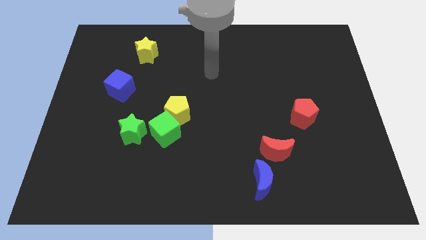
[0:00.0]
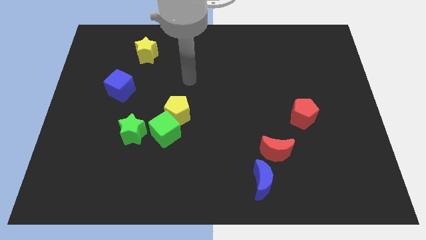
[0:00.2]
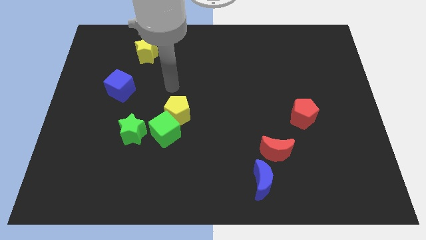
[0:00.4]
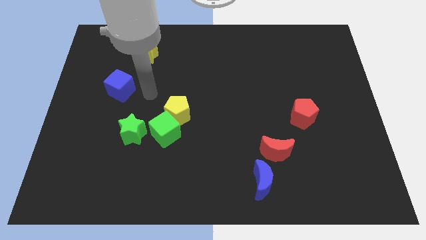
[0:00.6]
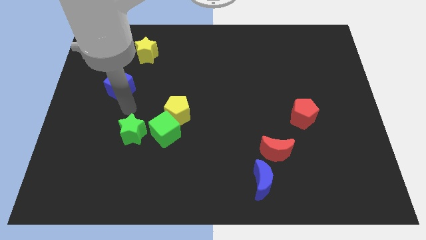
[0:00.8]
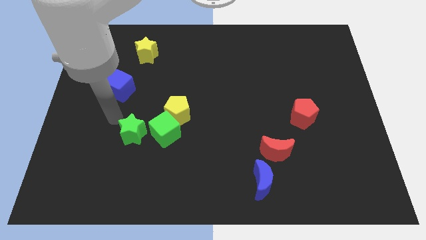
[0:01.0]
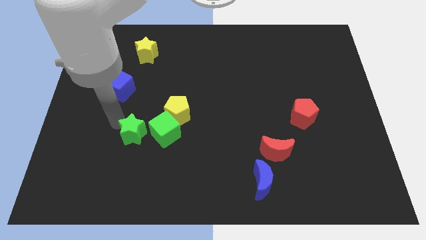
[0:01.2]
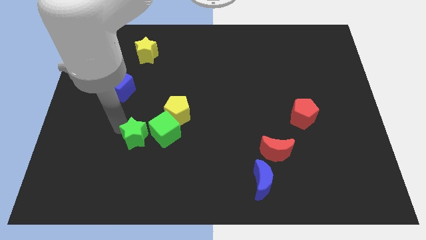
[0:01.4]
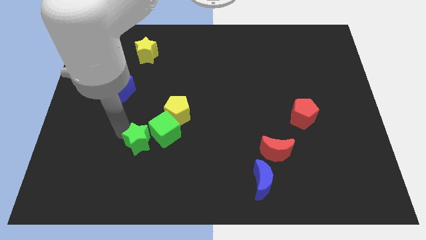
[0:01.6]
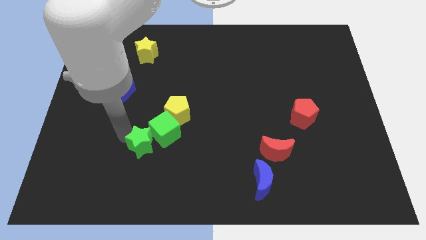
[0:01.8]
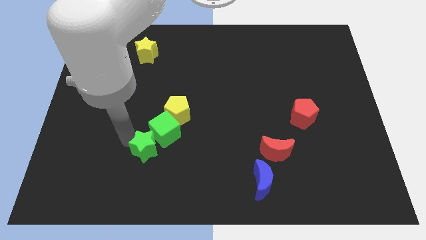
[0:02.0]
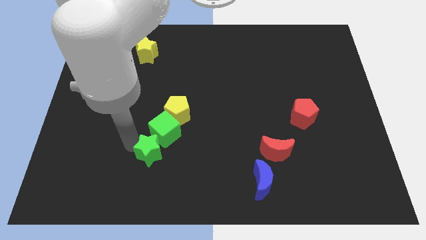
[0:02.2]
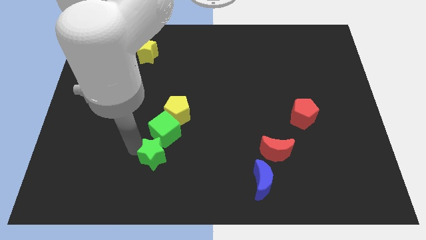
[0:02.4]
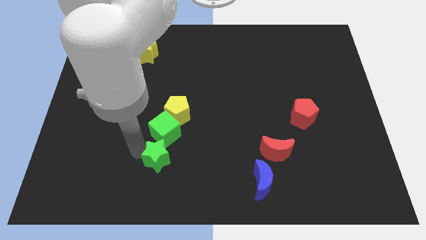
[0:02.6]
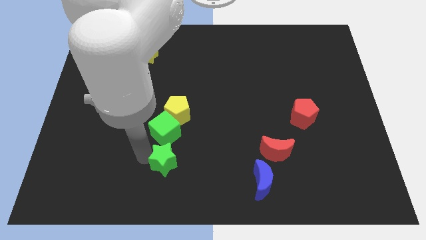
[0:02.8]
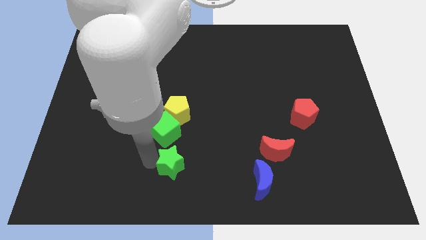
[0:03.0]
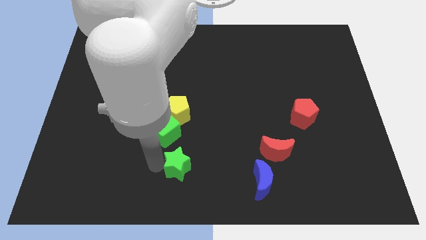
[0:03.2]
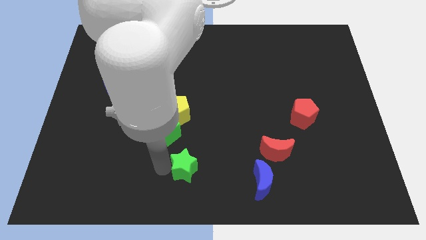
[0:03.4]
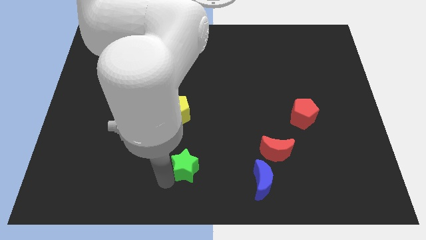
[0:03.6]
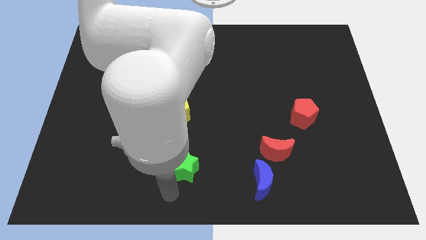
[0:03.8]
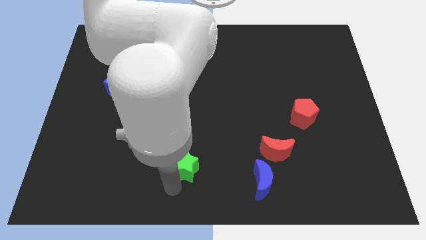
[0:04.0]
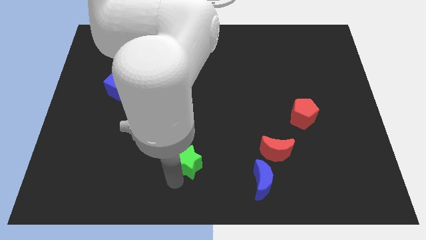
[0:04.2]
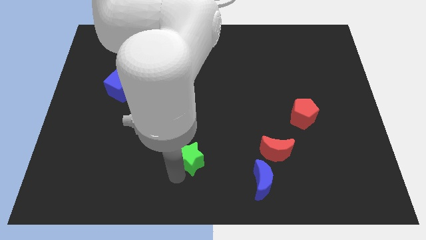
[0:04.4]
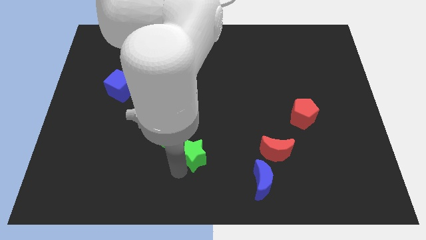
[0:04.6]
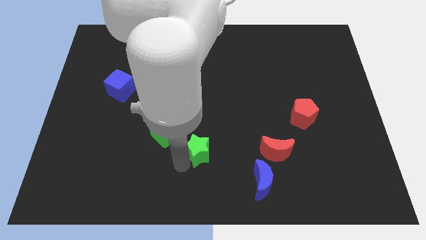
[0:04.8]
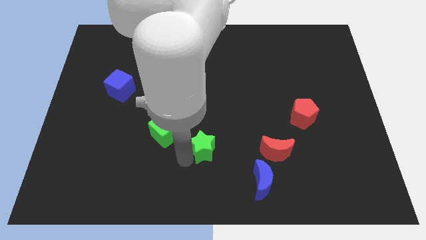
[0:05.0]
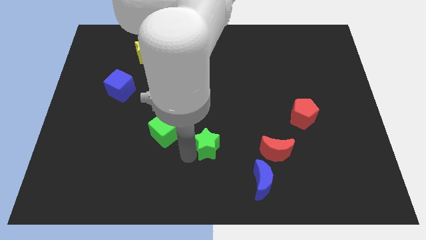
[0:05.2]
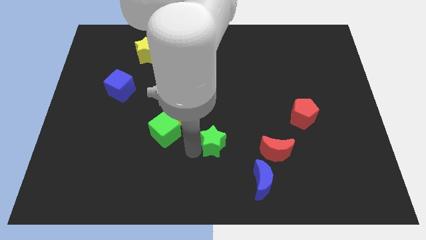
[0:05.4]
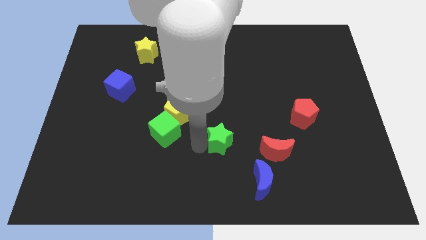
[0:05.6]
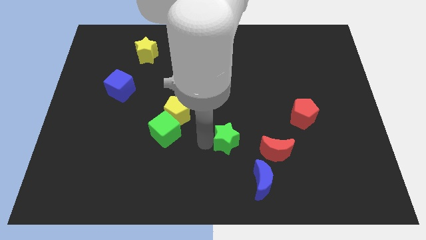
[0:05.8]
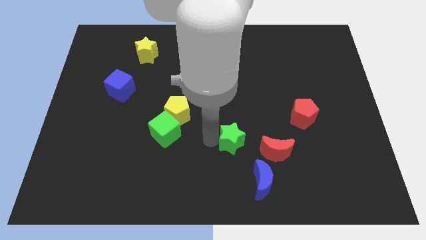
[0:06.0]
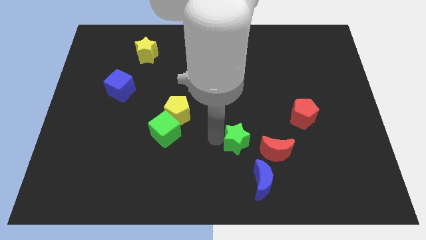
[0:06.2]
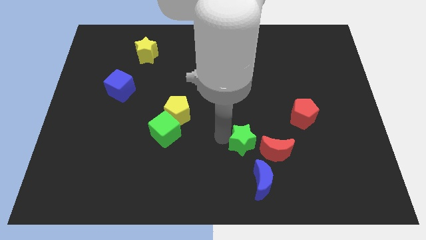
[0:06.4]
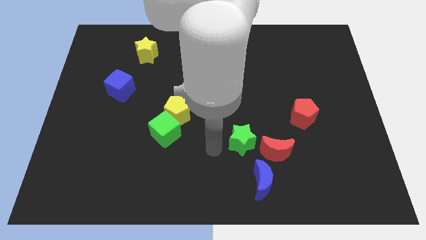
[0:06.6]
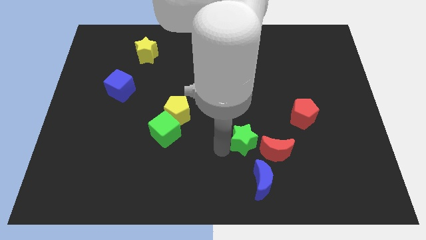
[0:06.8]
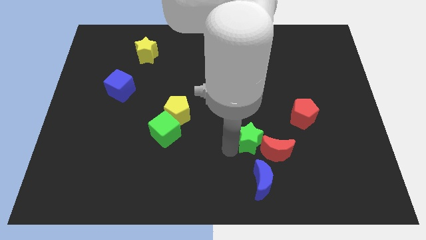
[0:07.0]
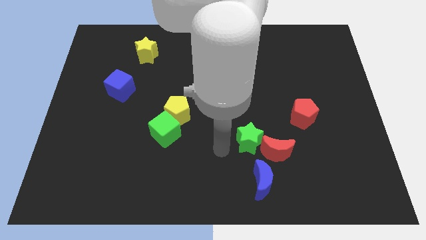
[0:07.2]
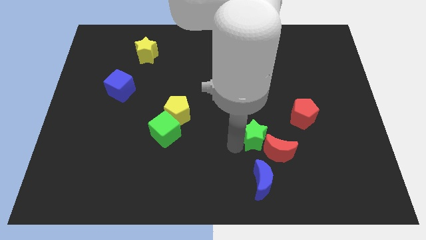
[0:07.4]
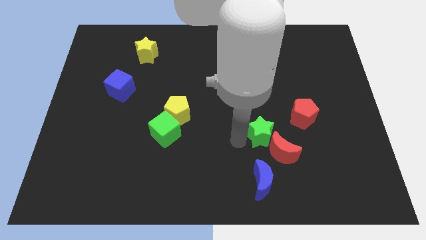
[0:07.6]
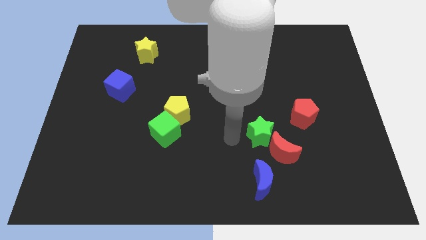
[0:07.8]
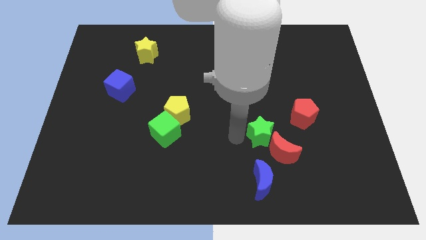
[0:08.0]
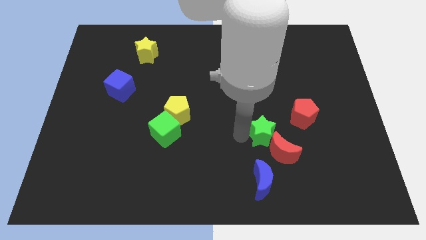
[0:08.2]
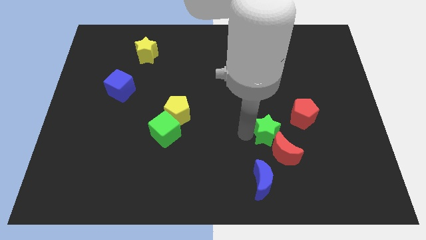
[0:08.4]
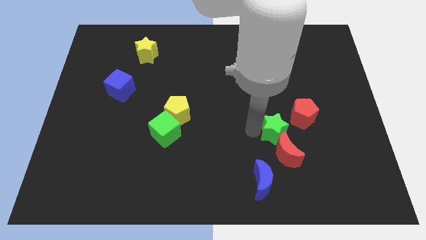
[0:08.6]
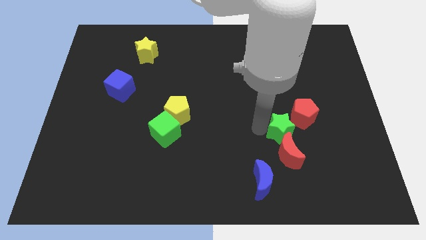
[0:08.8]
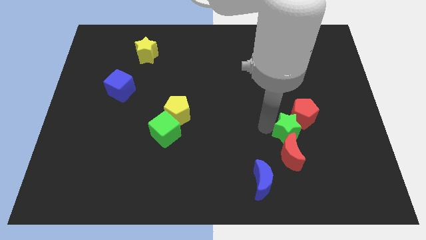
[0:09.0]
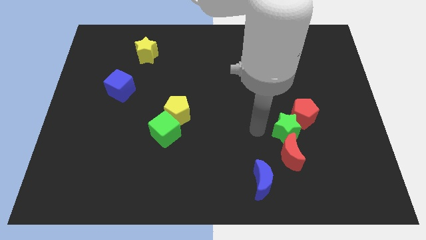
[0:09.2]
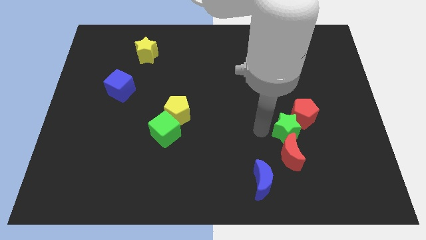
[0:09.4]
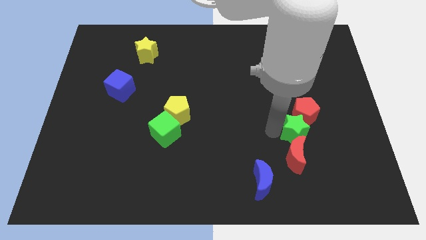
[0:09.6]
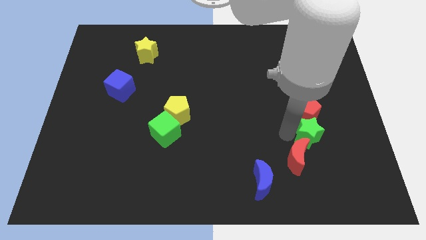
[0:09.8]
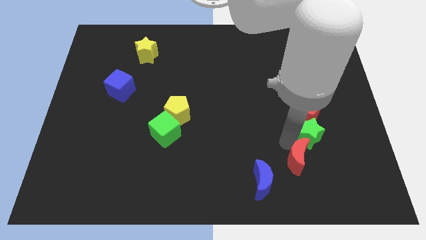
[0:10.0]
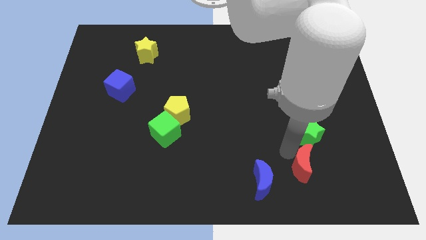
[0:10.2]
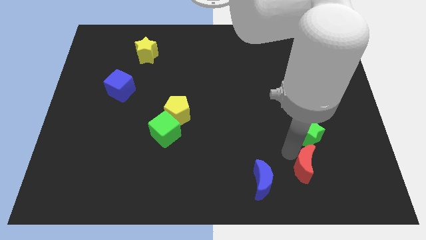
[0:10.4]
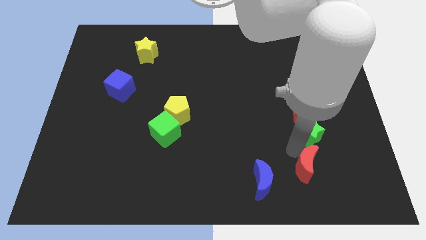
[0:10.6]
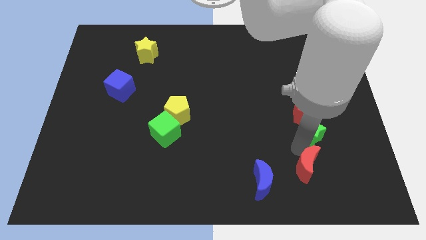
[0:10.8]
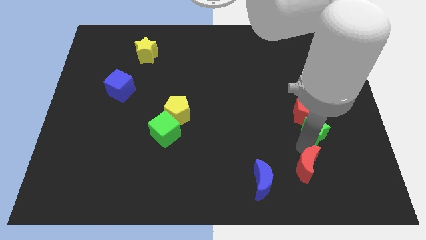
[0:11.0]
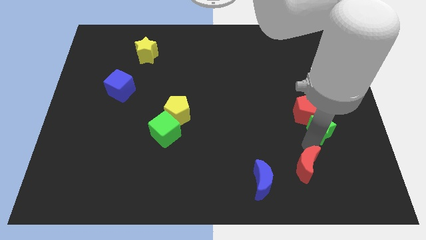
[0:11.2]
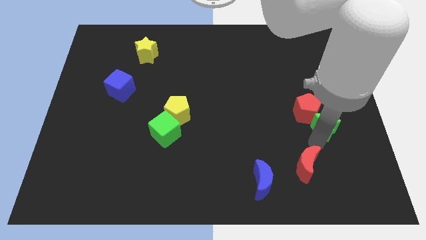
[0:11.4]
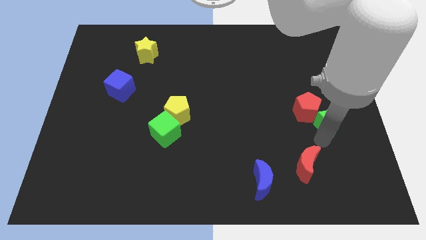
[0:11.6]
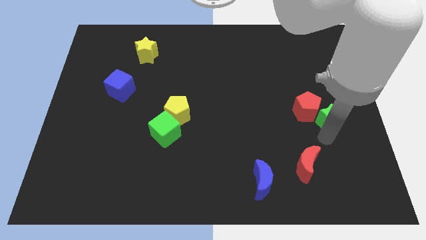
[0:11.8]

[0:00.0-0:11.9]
slide the green star to the center right

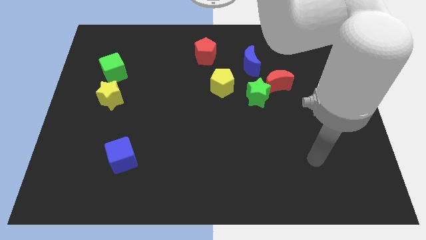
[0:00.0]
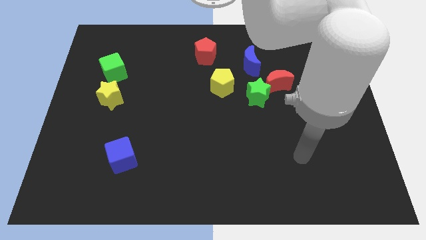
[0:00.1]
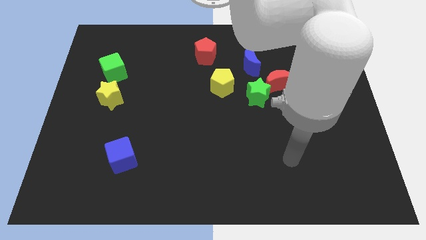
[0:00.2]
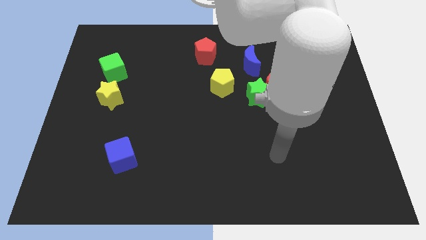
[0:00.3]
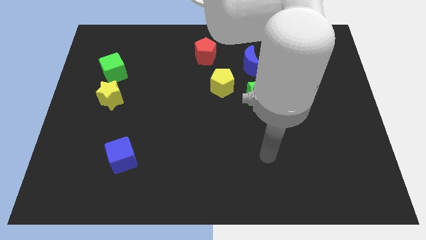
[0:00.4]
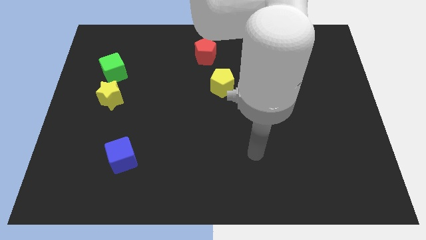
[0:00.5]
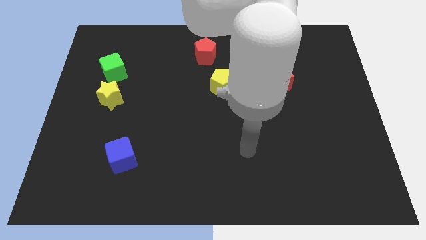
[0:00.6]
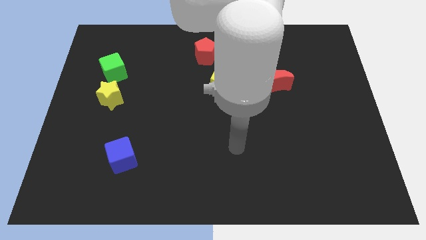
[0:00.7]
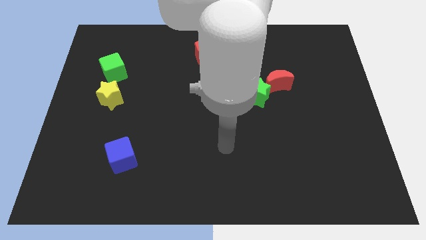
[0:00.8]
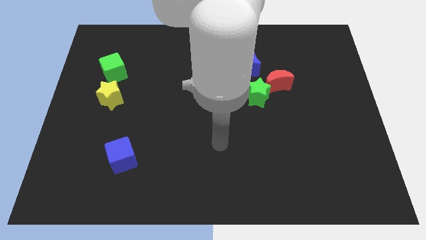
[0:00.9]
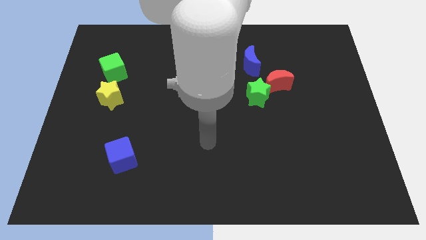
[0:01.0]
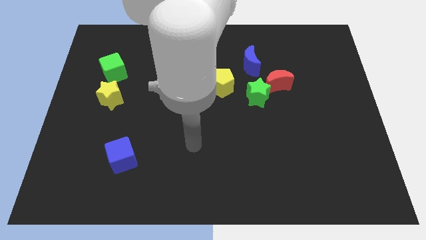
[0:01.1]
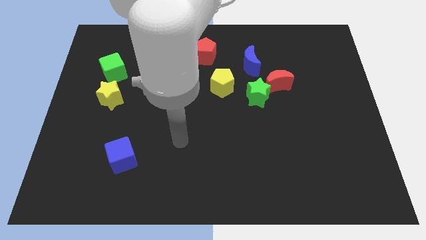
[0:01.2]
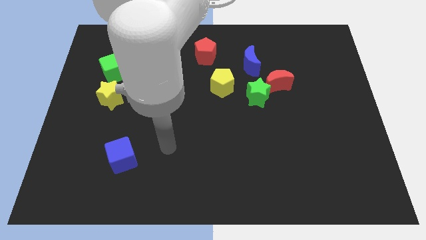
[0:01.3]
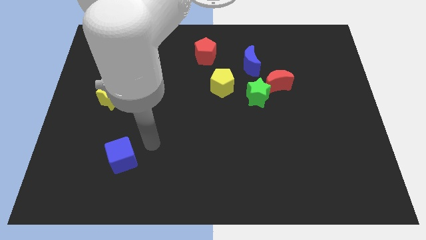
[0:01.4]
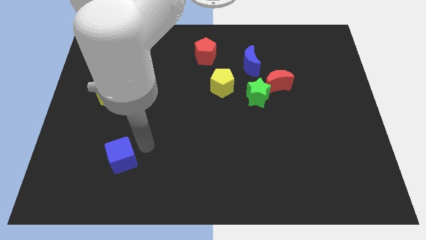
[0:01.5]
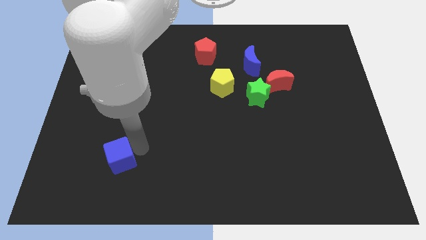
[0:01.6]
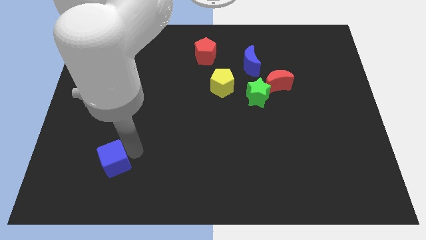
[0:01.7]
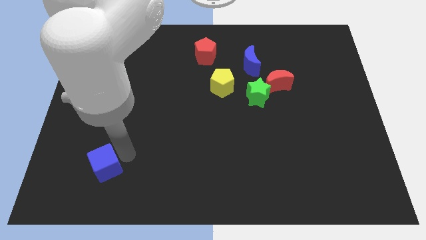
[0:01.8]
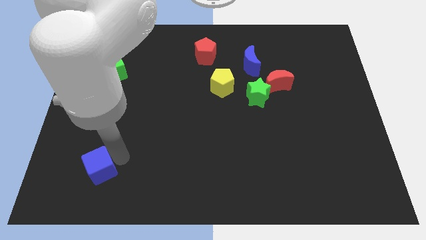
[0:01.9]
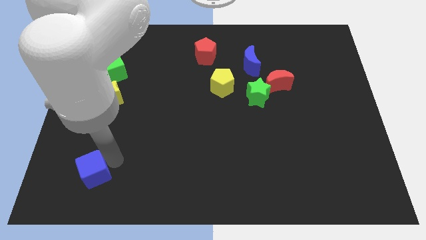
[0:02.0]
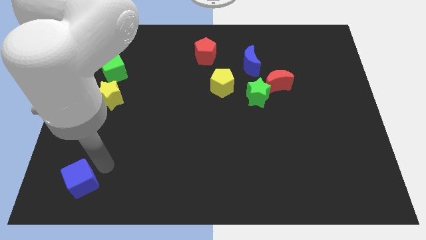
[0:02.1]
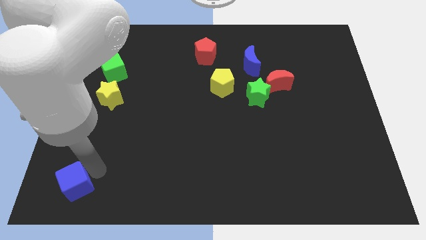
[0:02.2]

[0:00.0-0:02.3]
put the blue cube to the bottom left of the board
